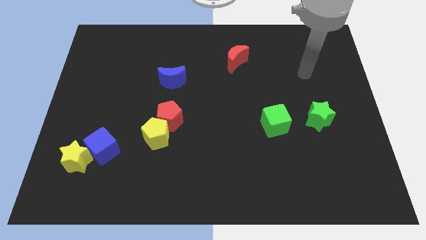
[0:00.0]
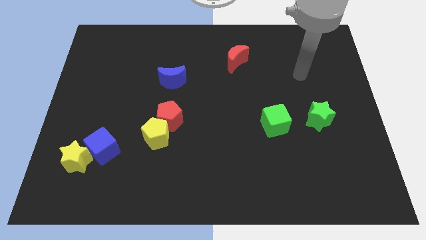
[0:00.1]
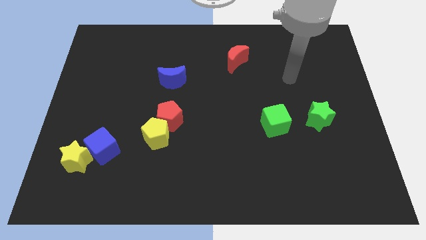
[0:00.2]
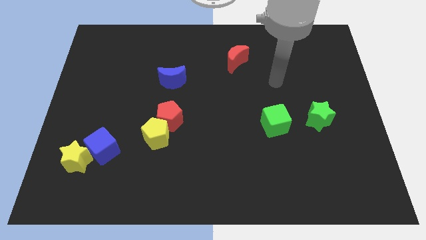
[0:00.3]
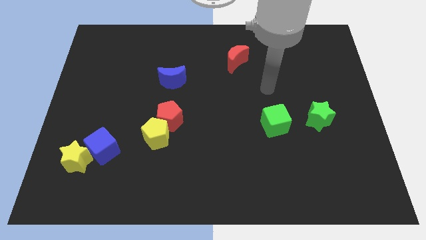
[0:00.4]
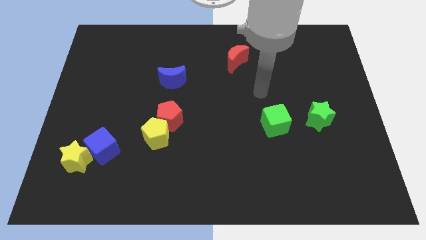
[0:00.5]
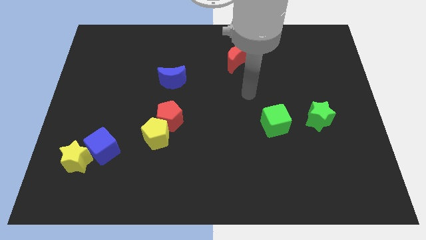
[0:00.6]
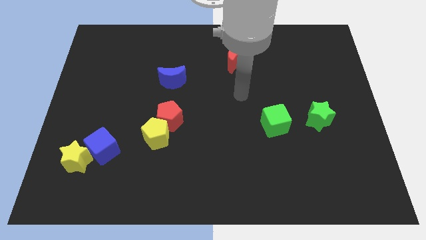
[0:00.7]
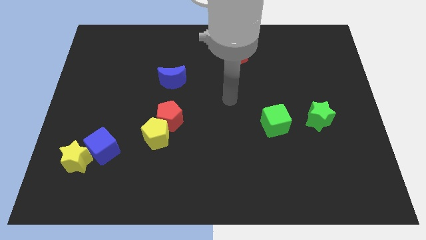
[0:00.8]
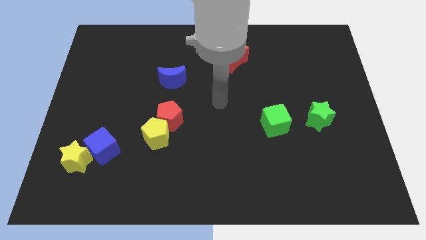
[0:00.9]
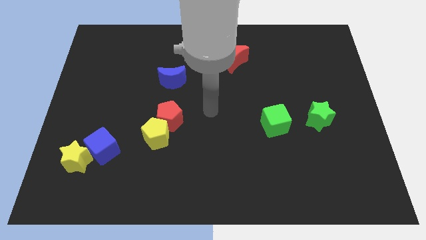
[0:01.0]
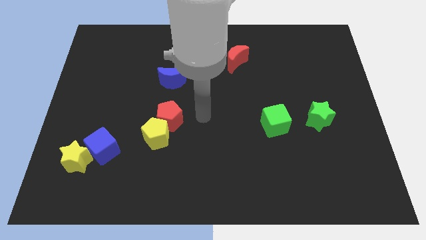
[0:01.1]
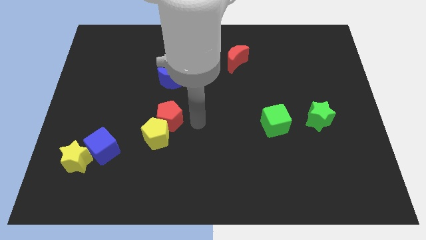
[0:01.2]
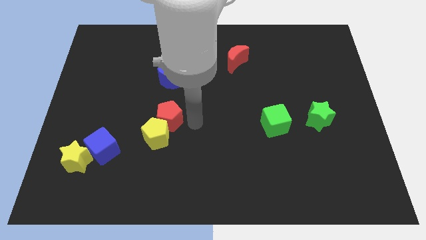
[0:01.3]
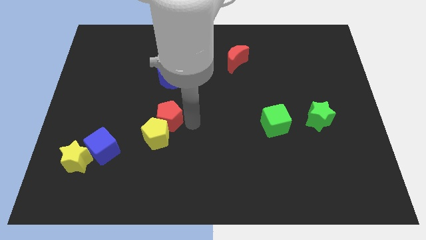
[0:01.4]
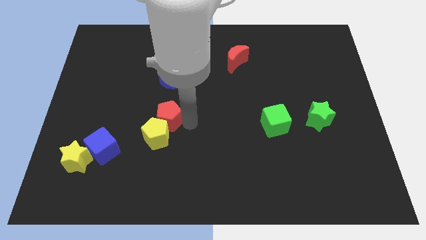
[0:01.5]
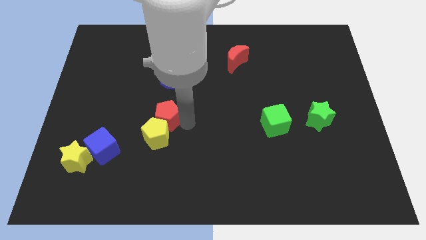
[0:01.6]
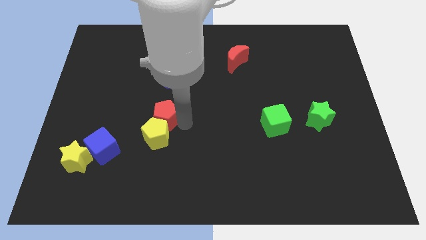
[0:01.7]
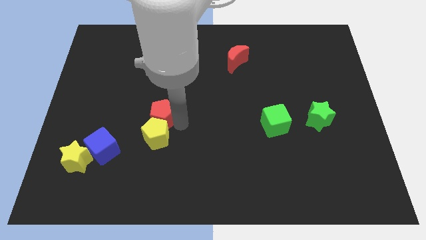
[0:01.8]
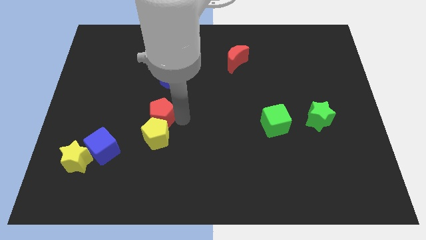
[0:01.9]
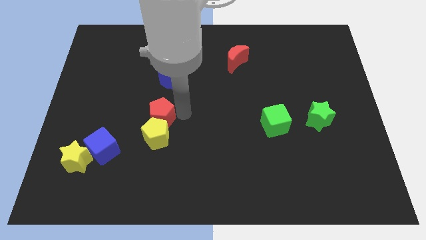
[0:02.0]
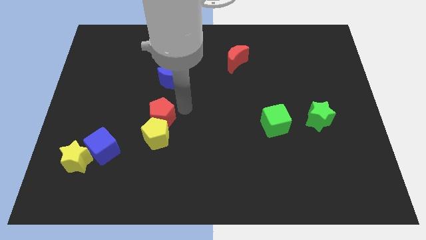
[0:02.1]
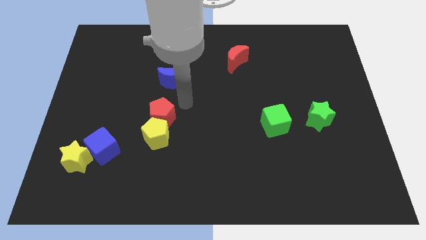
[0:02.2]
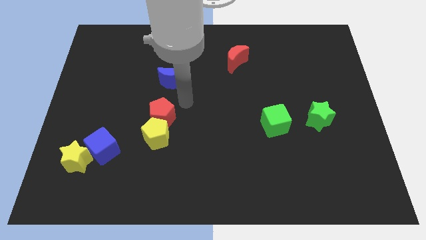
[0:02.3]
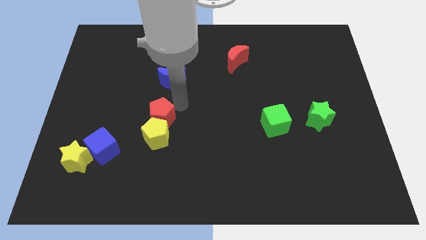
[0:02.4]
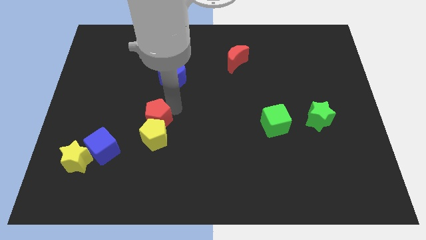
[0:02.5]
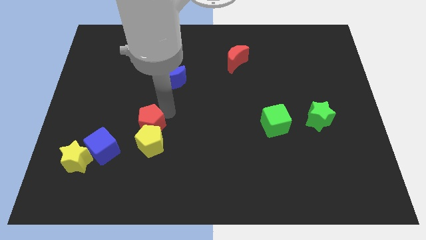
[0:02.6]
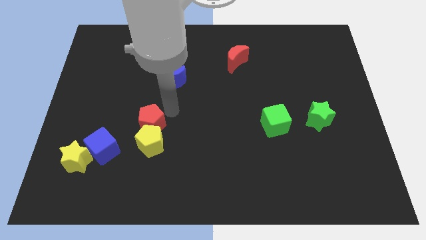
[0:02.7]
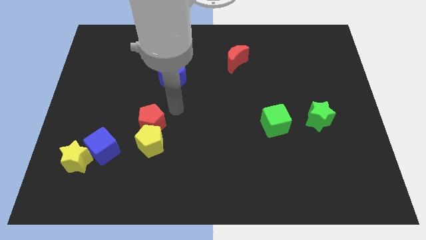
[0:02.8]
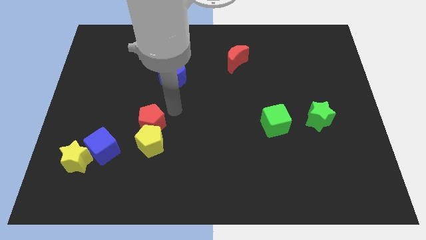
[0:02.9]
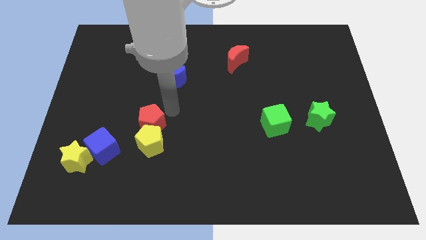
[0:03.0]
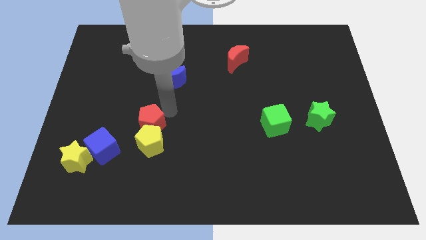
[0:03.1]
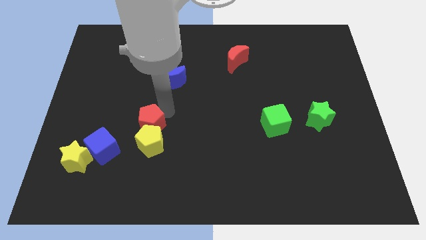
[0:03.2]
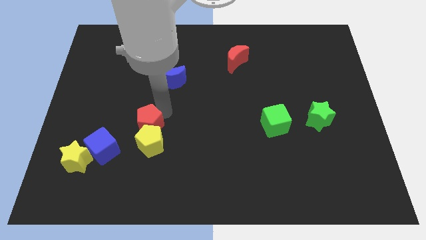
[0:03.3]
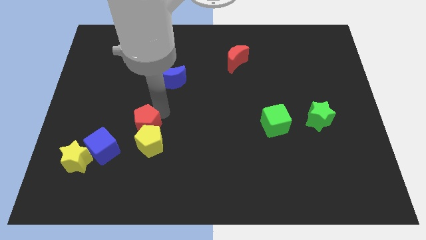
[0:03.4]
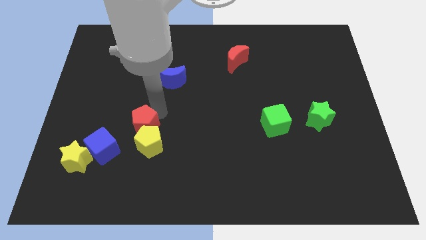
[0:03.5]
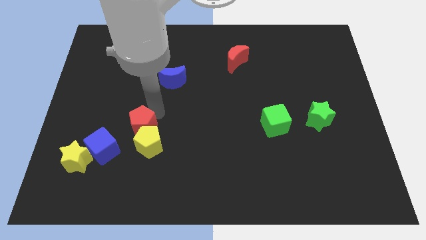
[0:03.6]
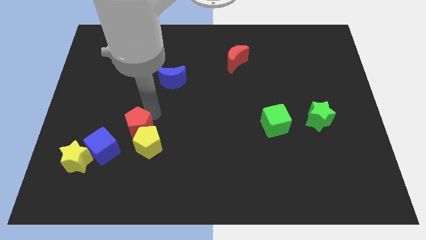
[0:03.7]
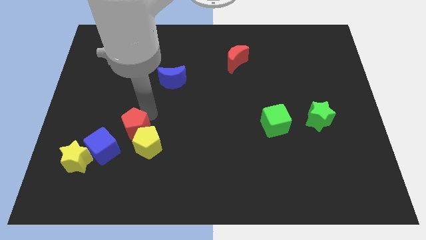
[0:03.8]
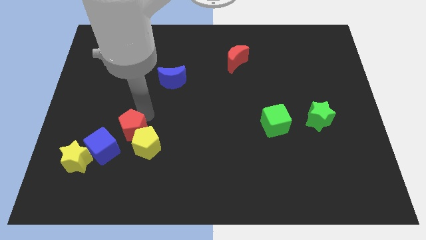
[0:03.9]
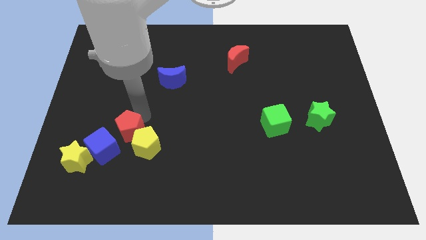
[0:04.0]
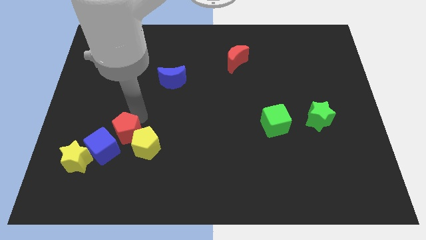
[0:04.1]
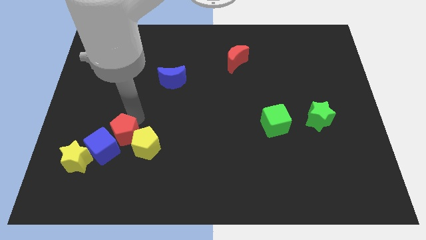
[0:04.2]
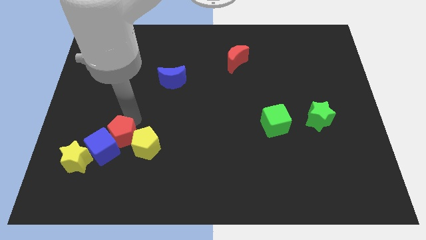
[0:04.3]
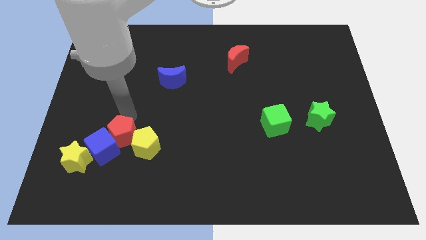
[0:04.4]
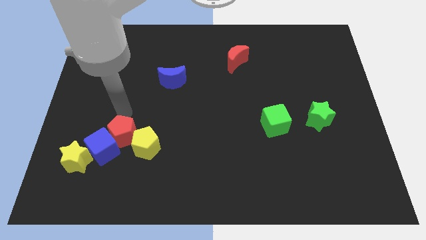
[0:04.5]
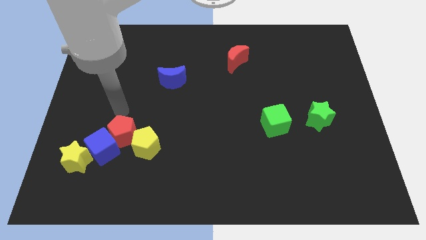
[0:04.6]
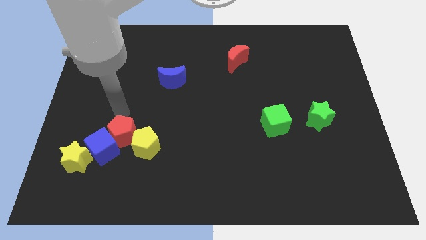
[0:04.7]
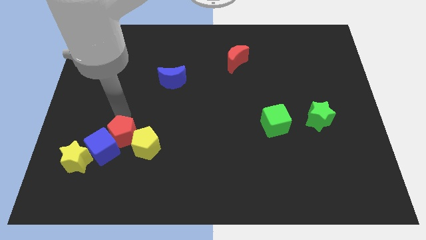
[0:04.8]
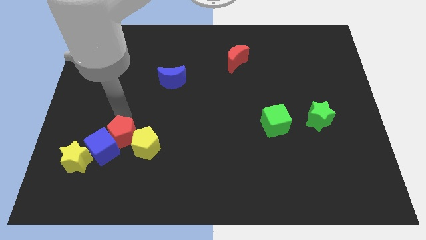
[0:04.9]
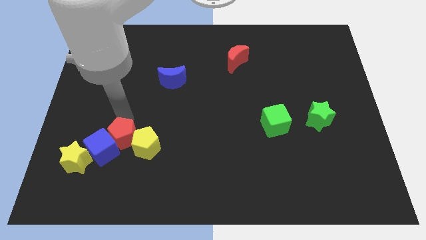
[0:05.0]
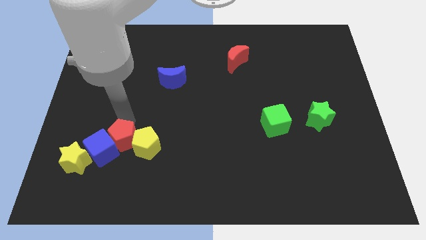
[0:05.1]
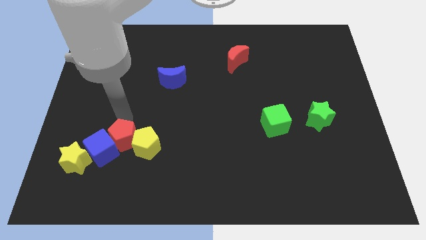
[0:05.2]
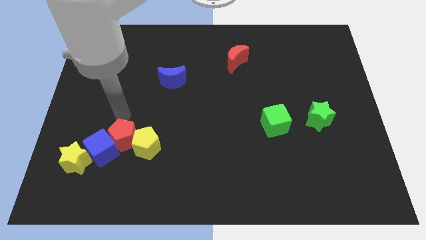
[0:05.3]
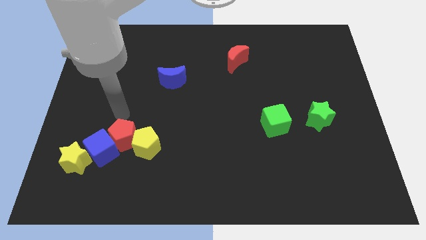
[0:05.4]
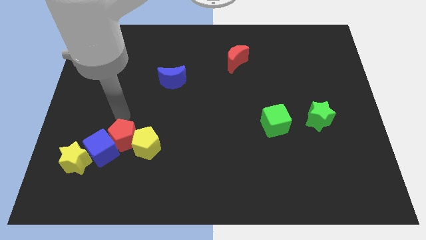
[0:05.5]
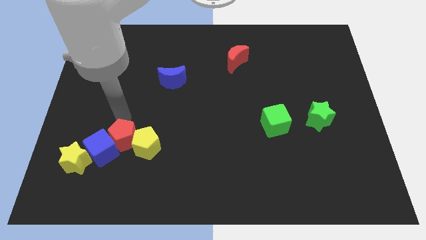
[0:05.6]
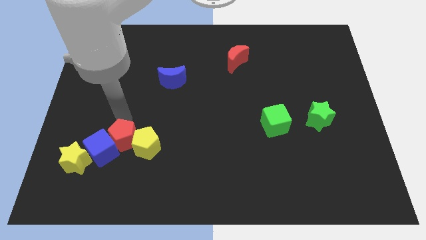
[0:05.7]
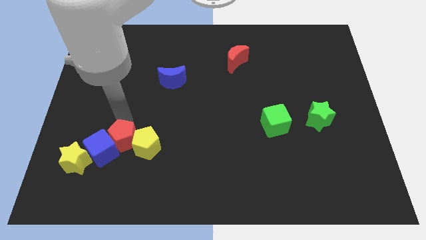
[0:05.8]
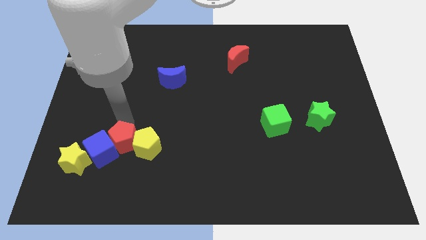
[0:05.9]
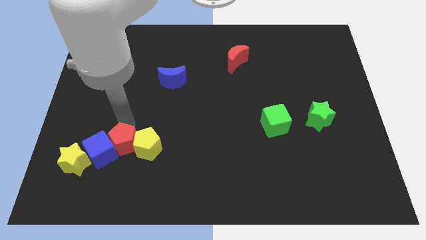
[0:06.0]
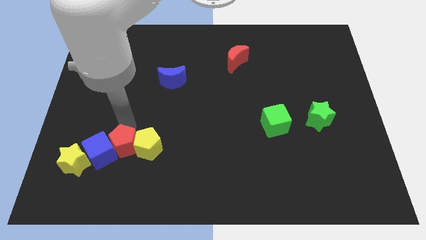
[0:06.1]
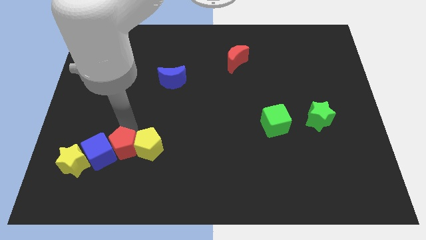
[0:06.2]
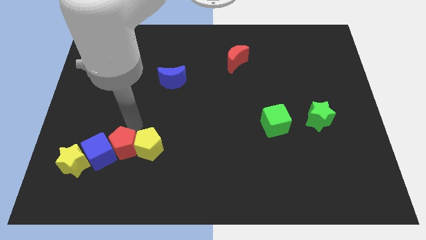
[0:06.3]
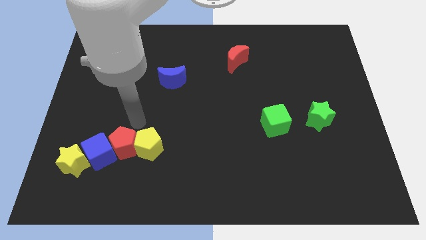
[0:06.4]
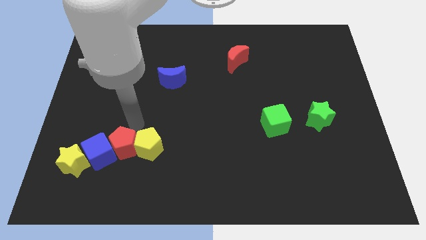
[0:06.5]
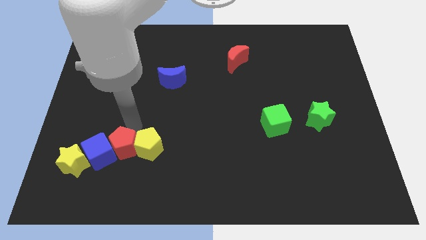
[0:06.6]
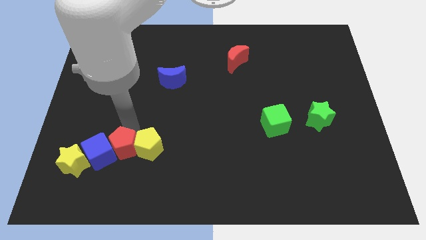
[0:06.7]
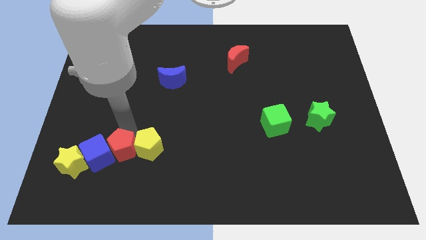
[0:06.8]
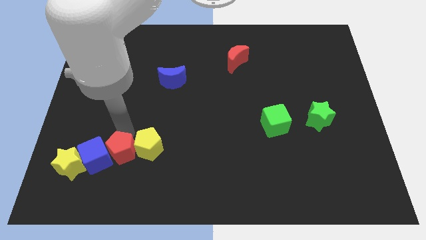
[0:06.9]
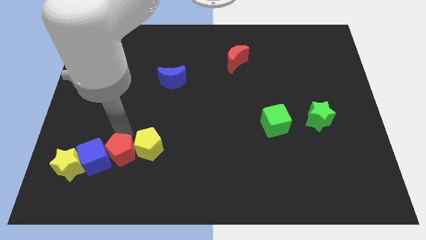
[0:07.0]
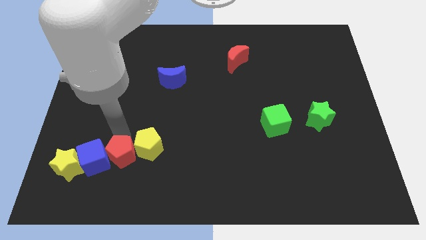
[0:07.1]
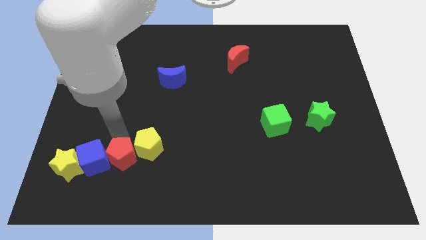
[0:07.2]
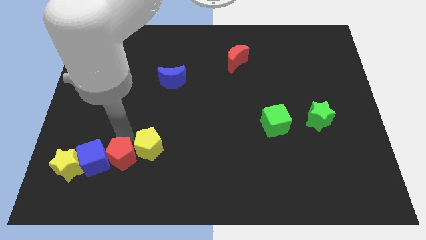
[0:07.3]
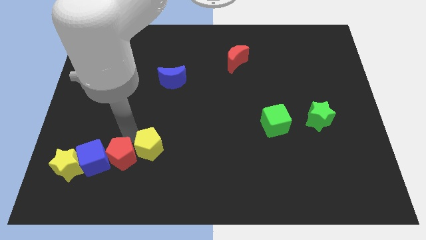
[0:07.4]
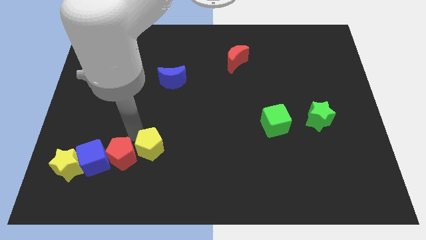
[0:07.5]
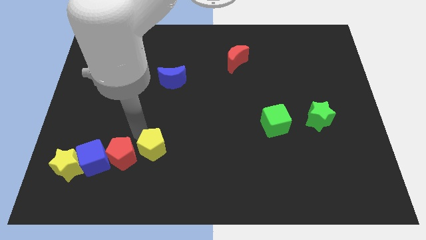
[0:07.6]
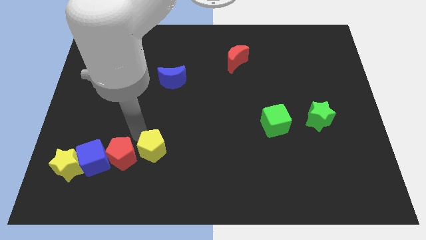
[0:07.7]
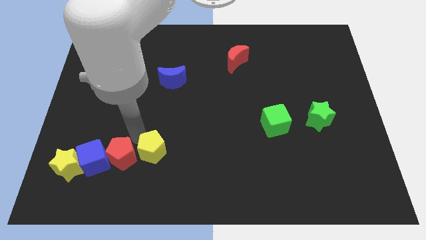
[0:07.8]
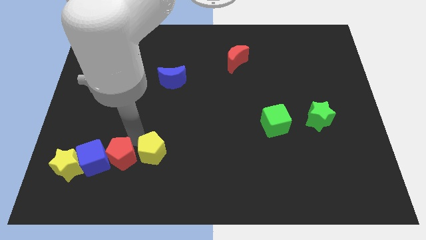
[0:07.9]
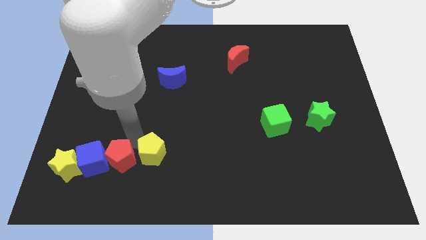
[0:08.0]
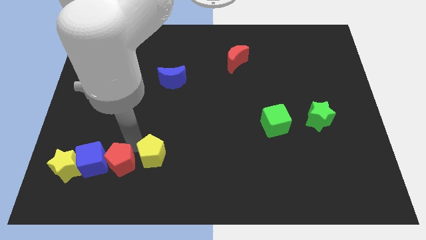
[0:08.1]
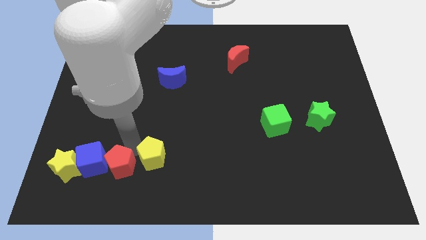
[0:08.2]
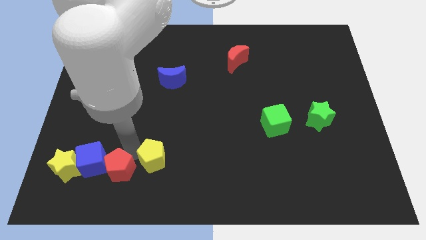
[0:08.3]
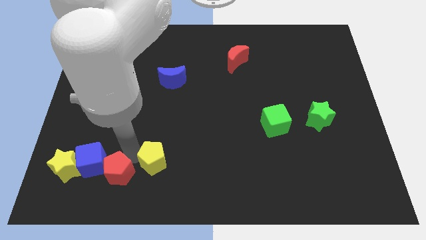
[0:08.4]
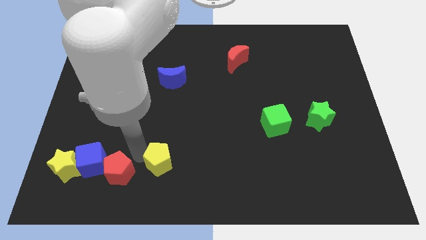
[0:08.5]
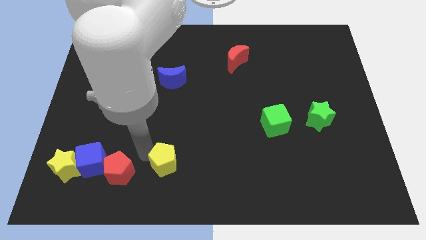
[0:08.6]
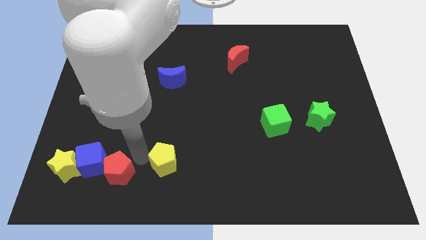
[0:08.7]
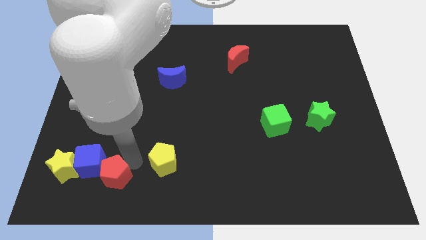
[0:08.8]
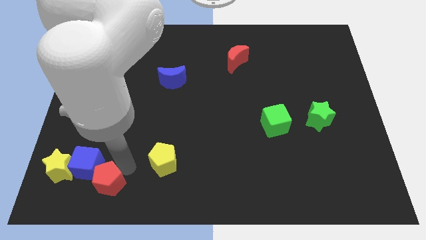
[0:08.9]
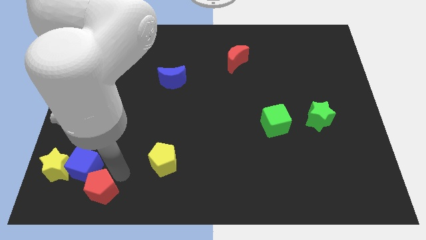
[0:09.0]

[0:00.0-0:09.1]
put the red pentagon to the bottom right of the yellow star
